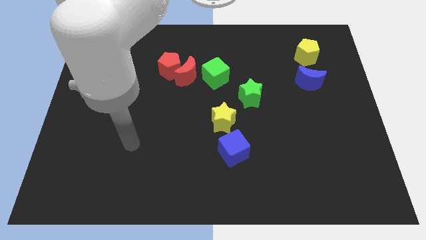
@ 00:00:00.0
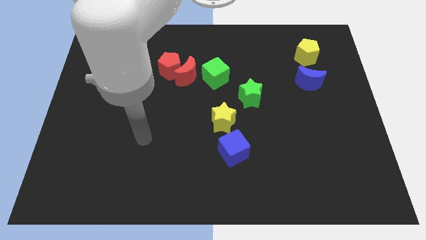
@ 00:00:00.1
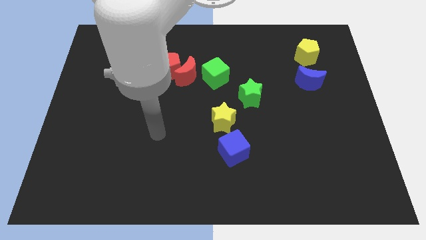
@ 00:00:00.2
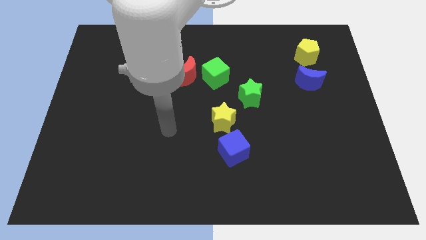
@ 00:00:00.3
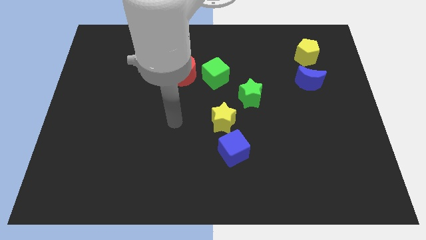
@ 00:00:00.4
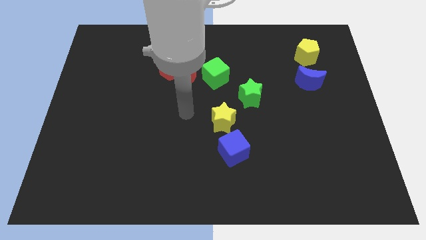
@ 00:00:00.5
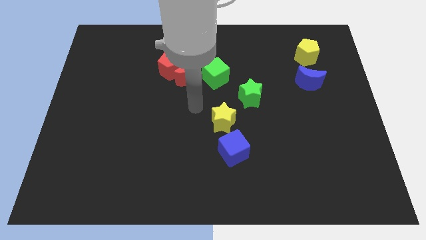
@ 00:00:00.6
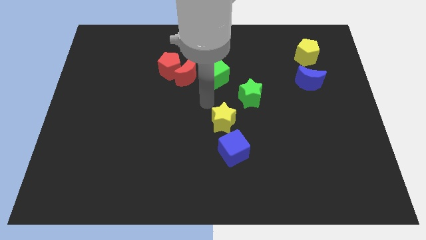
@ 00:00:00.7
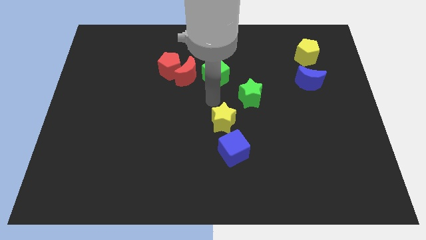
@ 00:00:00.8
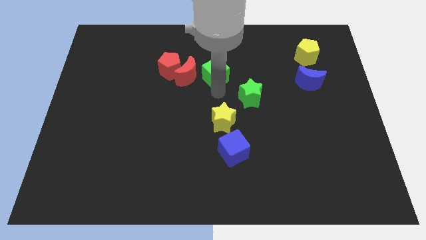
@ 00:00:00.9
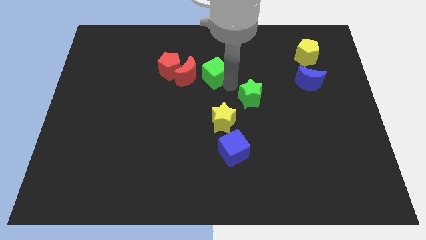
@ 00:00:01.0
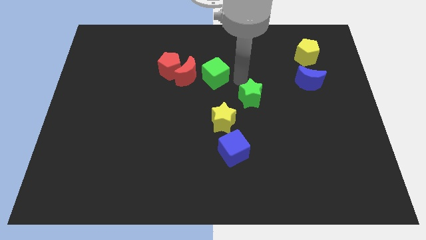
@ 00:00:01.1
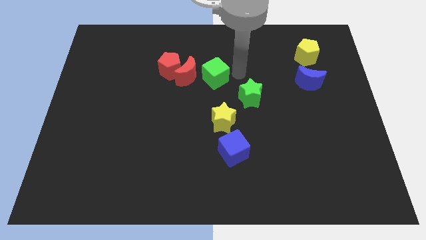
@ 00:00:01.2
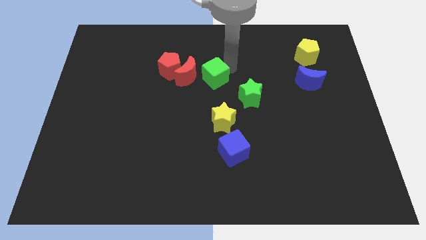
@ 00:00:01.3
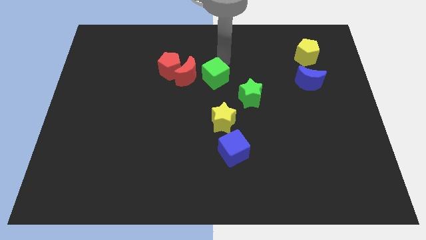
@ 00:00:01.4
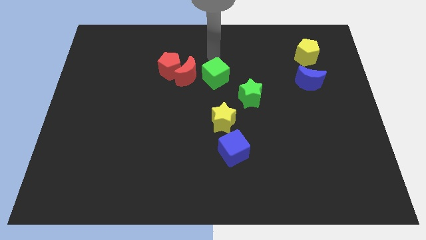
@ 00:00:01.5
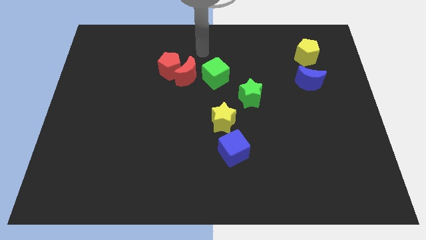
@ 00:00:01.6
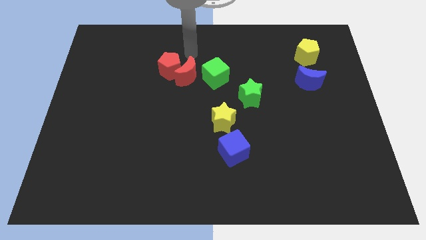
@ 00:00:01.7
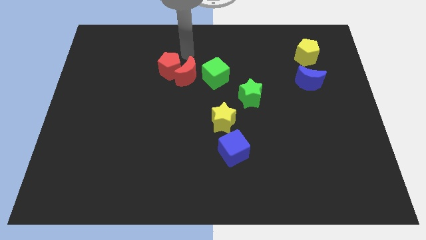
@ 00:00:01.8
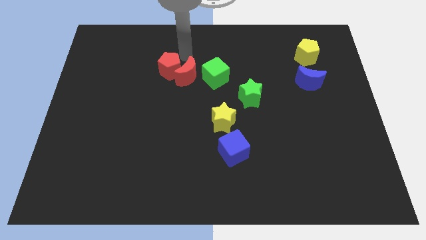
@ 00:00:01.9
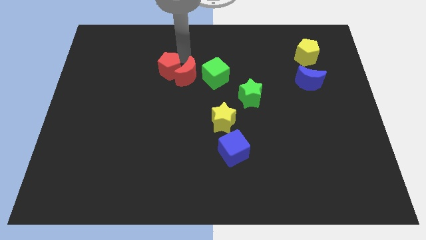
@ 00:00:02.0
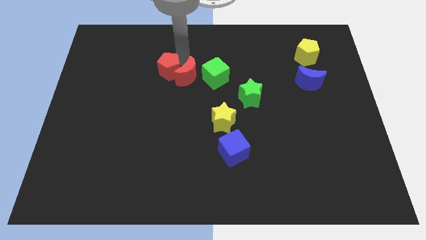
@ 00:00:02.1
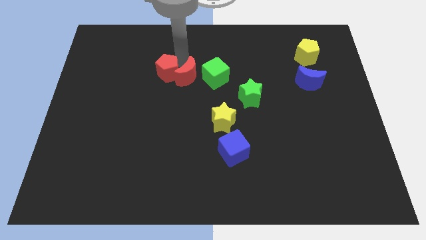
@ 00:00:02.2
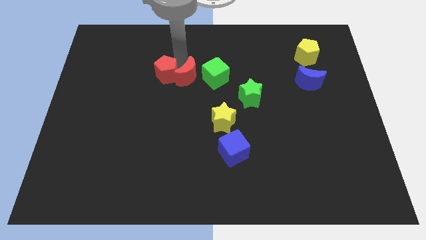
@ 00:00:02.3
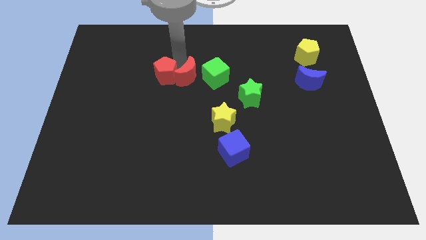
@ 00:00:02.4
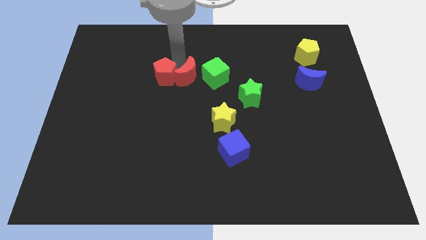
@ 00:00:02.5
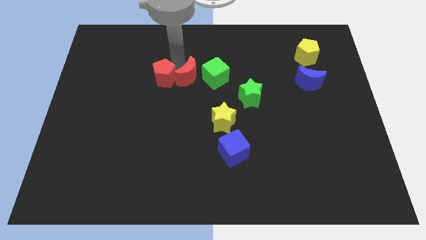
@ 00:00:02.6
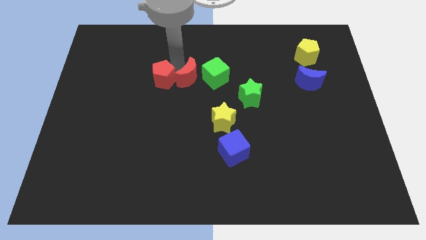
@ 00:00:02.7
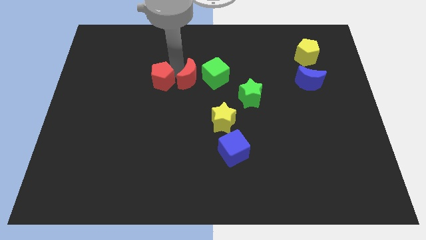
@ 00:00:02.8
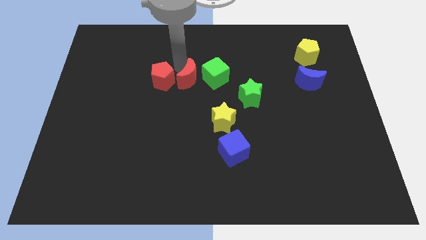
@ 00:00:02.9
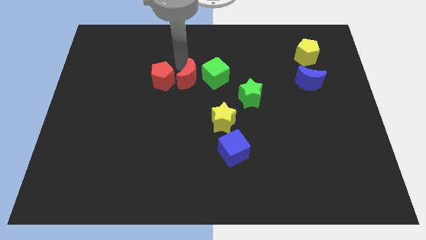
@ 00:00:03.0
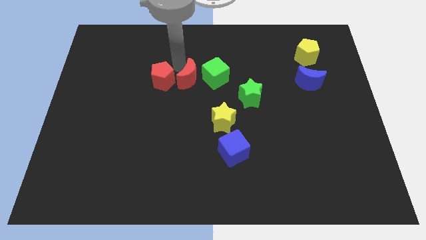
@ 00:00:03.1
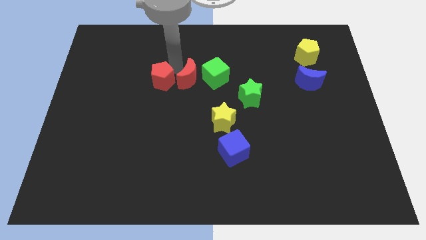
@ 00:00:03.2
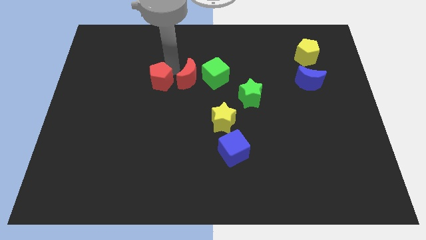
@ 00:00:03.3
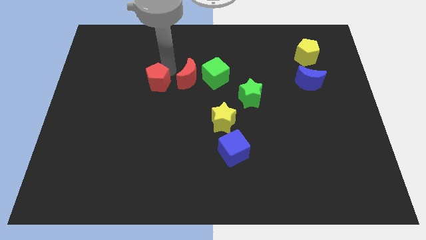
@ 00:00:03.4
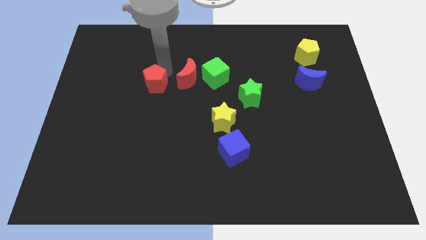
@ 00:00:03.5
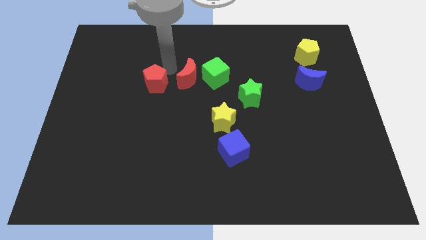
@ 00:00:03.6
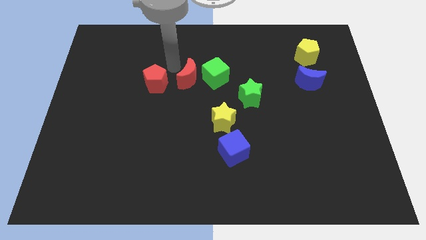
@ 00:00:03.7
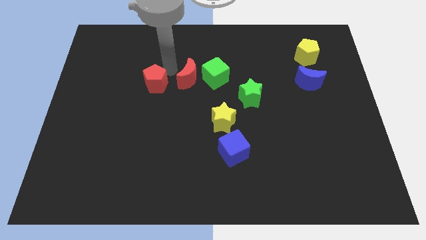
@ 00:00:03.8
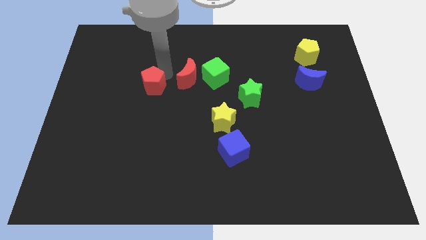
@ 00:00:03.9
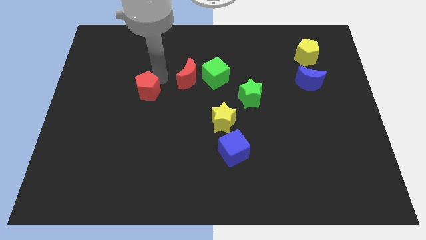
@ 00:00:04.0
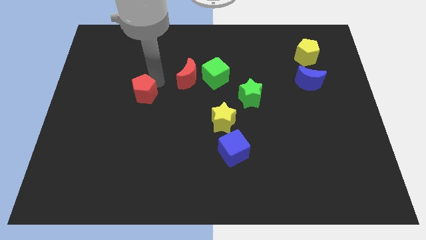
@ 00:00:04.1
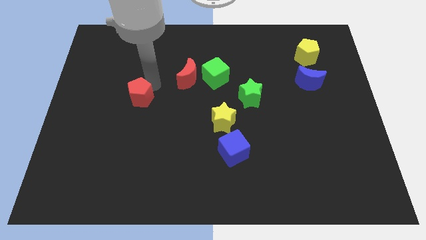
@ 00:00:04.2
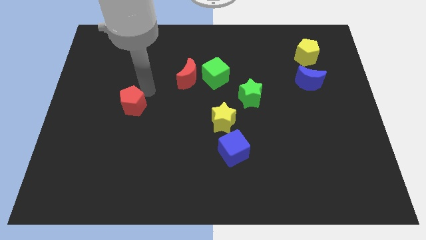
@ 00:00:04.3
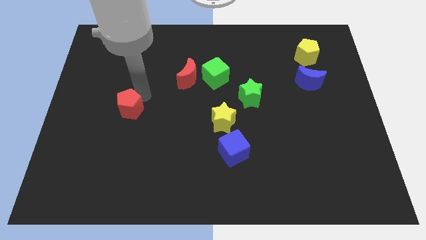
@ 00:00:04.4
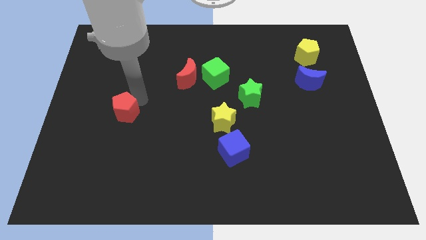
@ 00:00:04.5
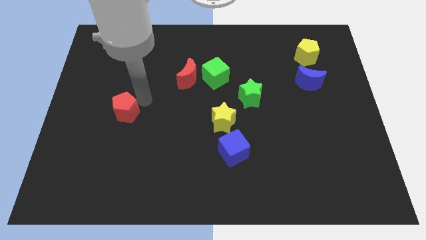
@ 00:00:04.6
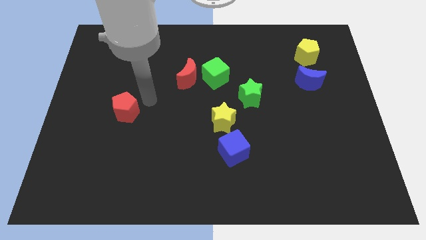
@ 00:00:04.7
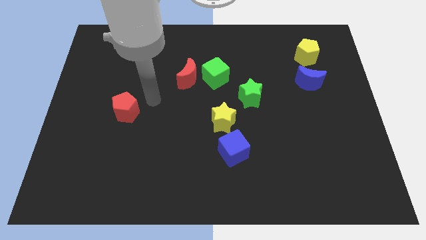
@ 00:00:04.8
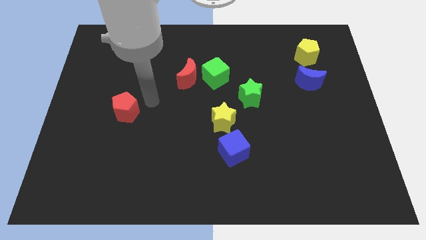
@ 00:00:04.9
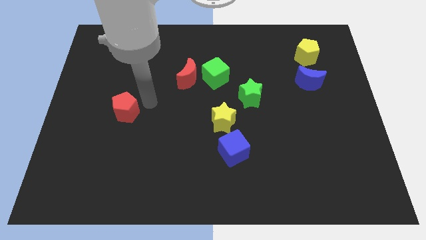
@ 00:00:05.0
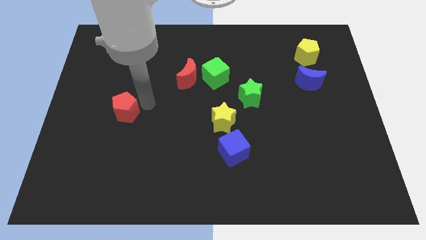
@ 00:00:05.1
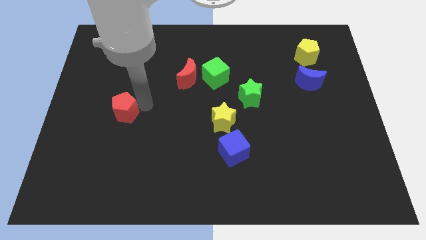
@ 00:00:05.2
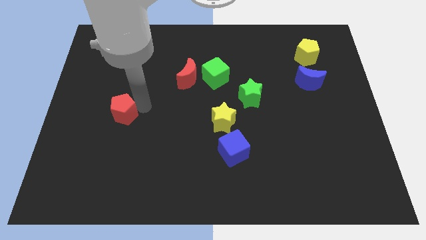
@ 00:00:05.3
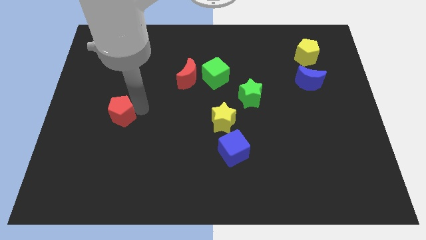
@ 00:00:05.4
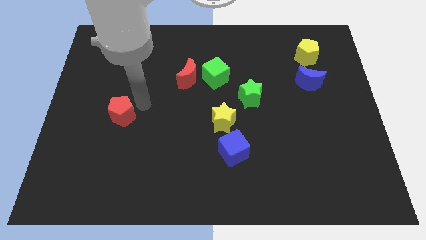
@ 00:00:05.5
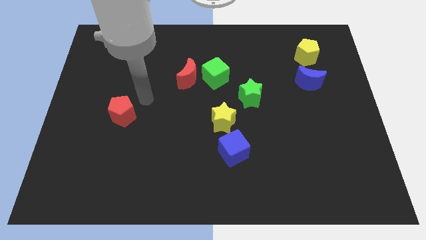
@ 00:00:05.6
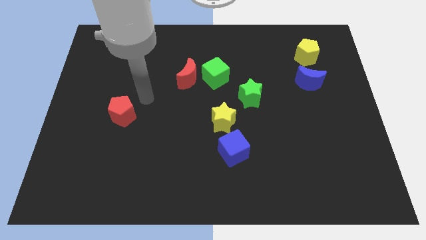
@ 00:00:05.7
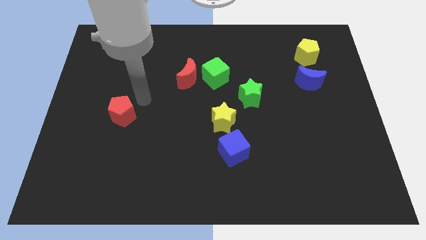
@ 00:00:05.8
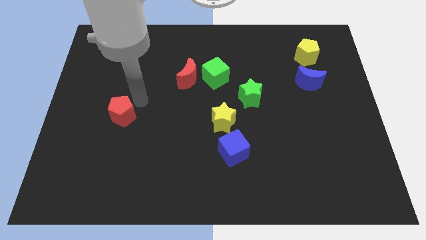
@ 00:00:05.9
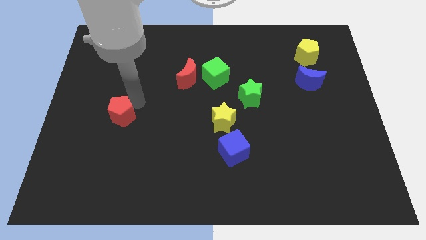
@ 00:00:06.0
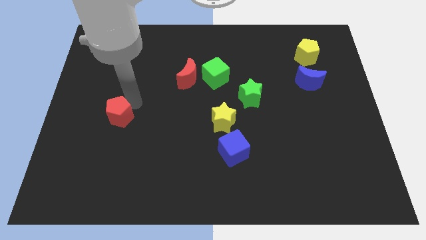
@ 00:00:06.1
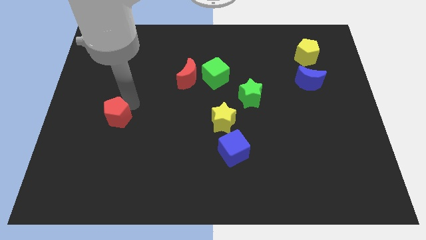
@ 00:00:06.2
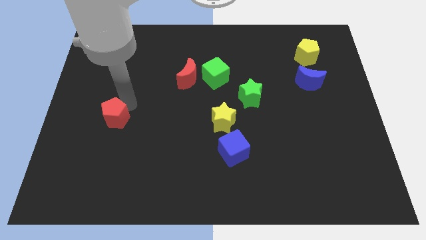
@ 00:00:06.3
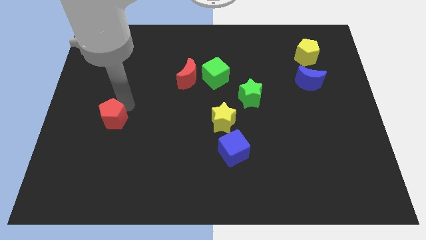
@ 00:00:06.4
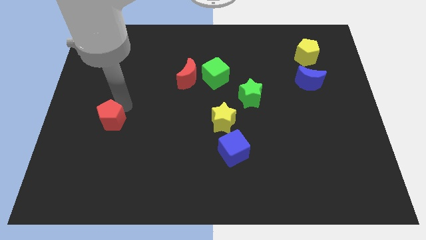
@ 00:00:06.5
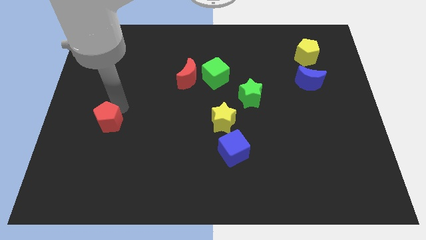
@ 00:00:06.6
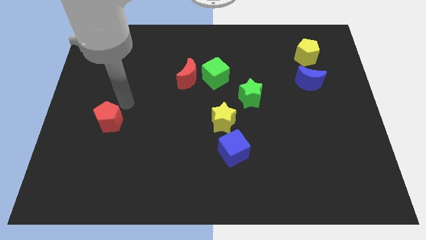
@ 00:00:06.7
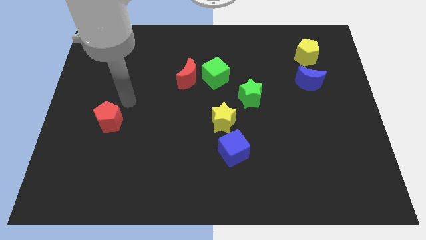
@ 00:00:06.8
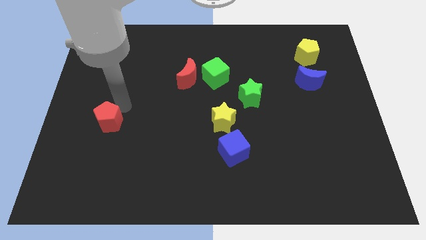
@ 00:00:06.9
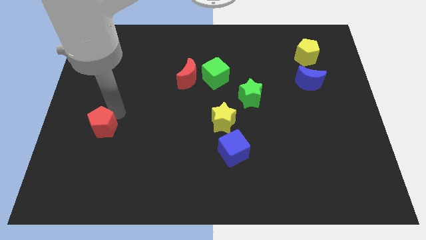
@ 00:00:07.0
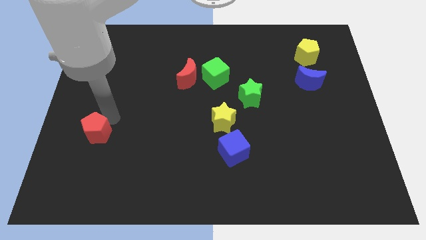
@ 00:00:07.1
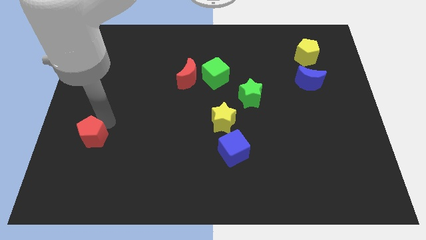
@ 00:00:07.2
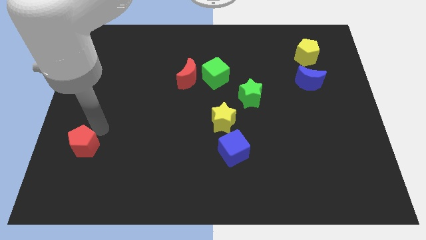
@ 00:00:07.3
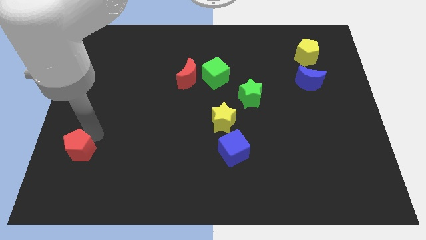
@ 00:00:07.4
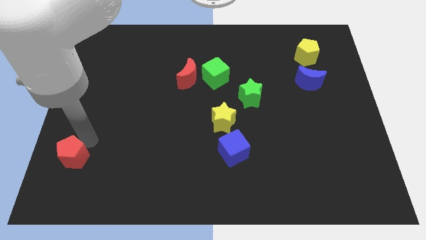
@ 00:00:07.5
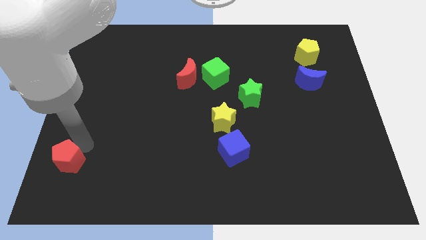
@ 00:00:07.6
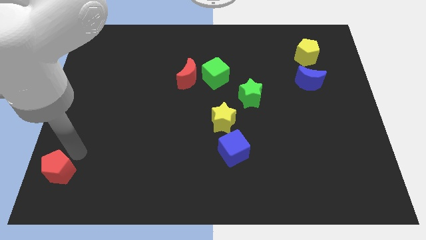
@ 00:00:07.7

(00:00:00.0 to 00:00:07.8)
push the red pentagon to the lower left corner
